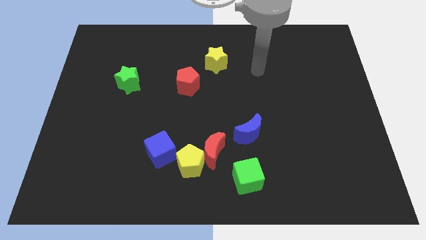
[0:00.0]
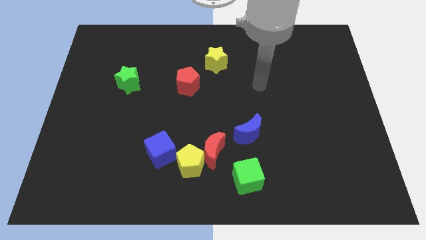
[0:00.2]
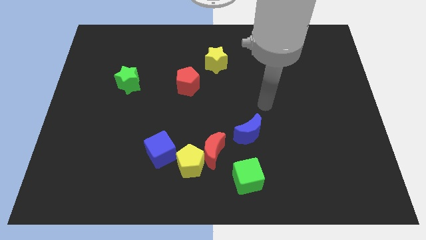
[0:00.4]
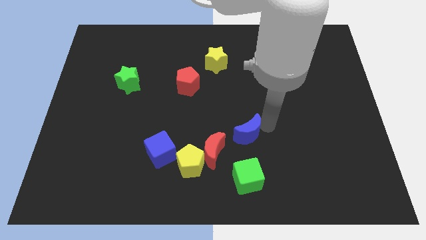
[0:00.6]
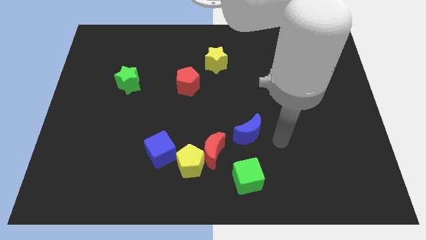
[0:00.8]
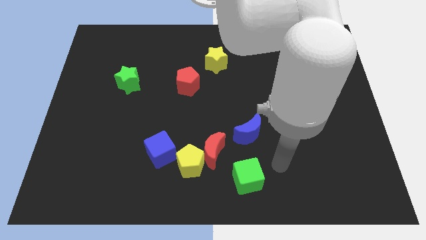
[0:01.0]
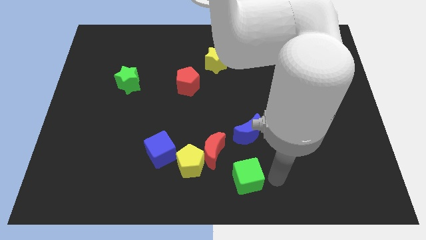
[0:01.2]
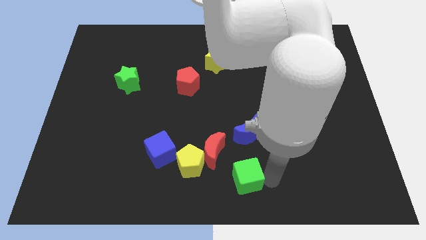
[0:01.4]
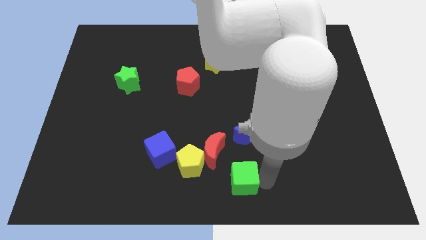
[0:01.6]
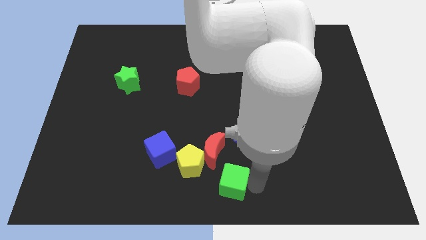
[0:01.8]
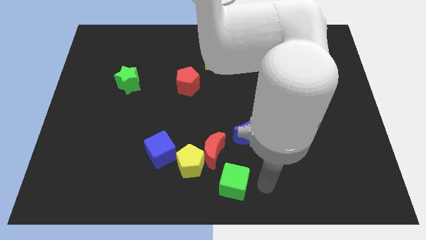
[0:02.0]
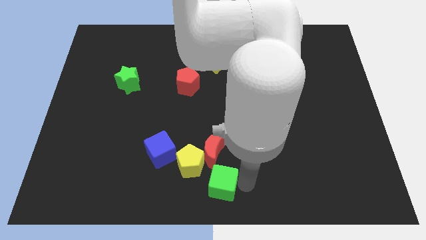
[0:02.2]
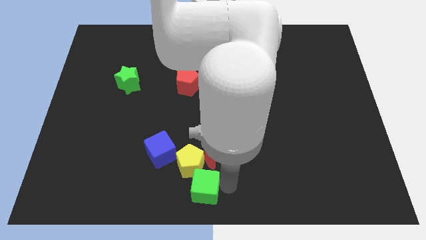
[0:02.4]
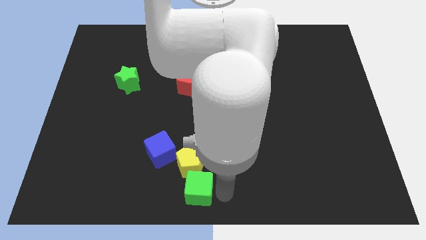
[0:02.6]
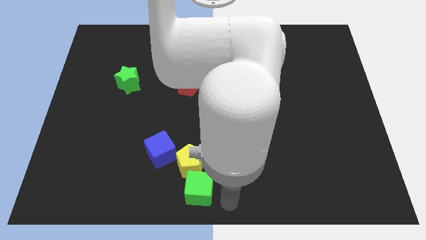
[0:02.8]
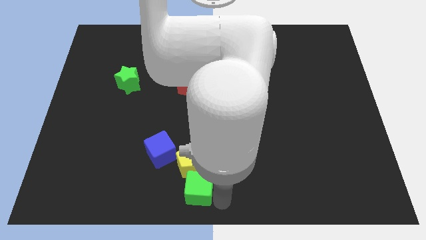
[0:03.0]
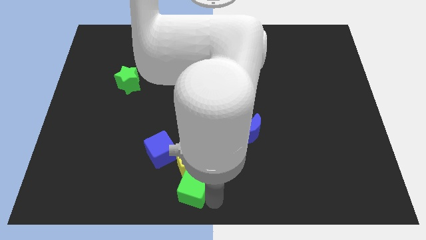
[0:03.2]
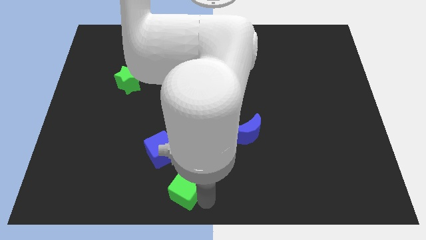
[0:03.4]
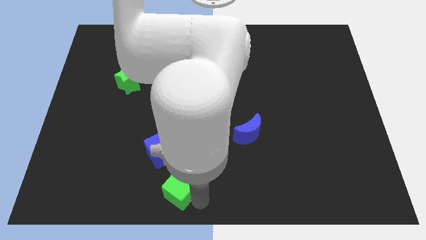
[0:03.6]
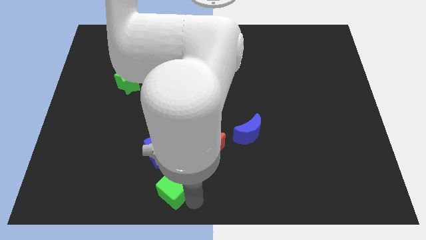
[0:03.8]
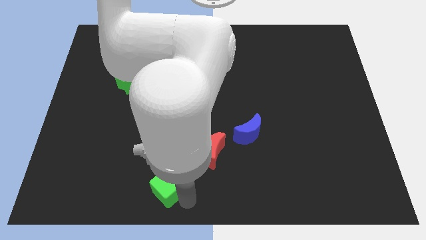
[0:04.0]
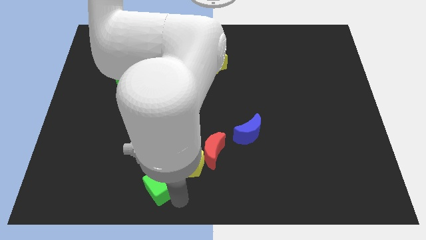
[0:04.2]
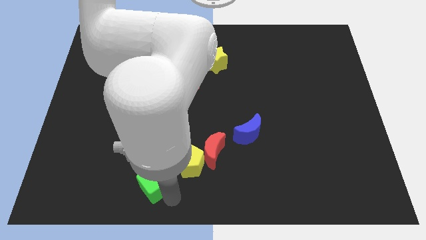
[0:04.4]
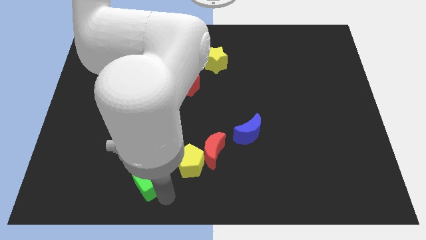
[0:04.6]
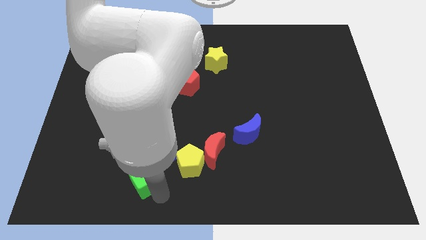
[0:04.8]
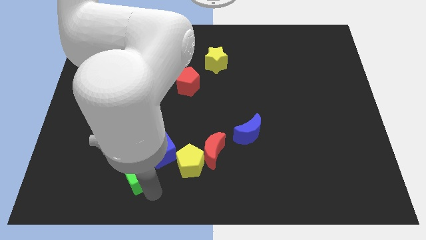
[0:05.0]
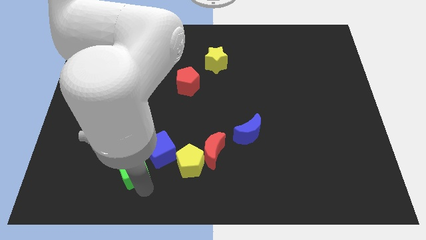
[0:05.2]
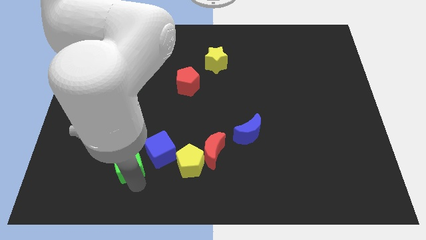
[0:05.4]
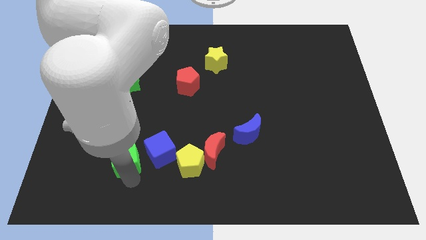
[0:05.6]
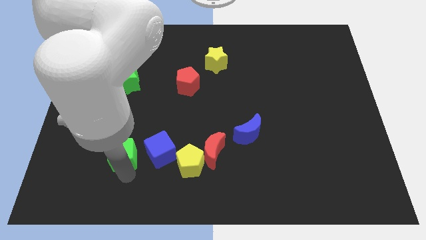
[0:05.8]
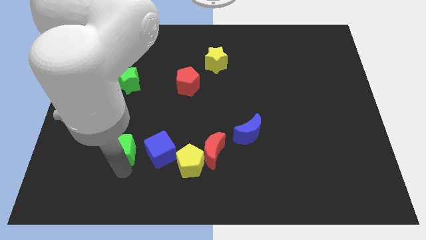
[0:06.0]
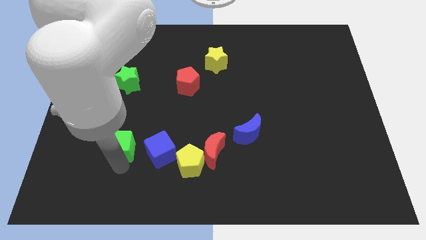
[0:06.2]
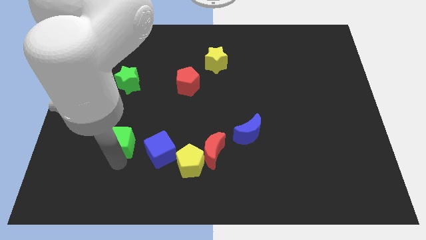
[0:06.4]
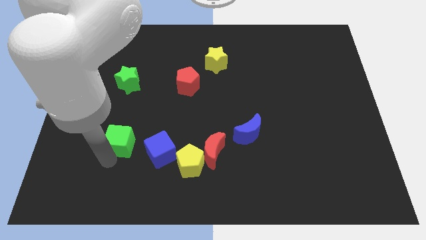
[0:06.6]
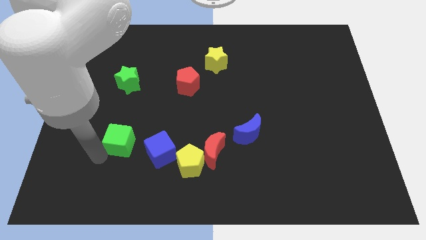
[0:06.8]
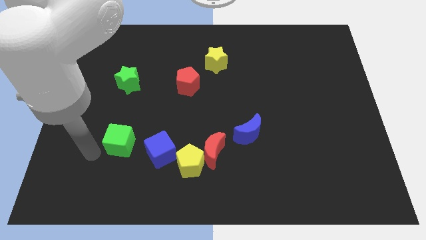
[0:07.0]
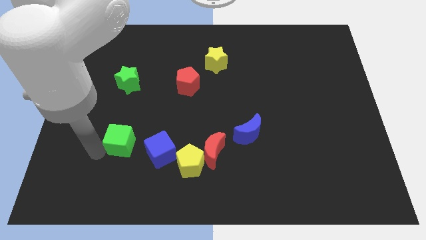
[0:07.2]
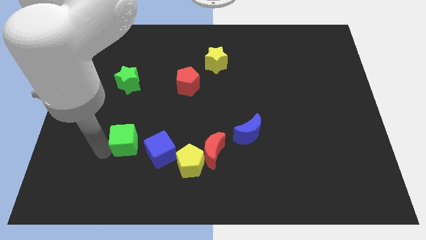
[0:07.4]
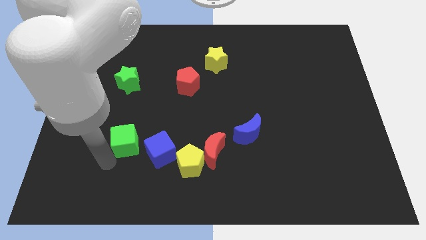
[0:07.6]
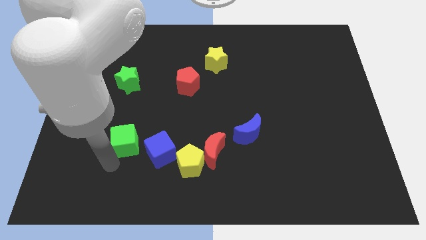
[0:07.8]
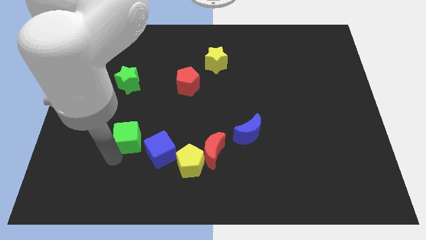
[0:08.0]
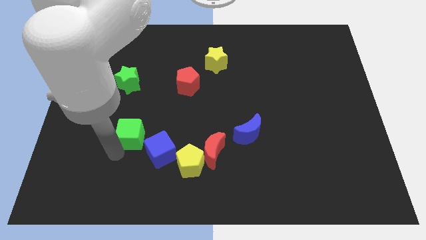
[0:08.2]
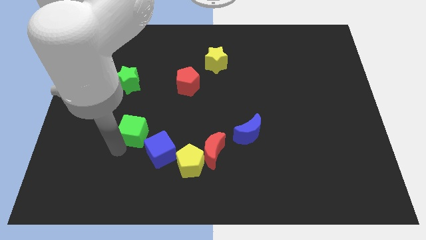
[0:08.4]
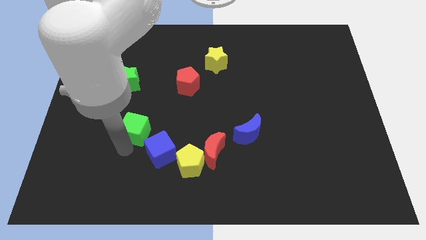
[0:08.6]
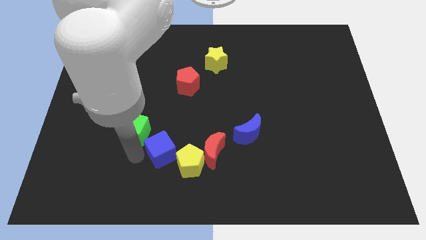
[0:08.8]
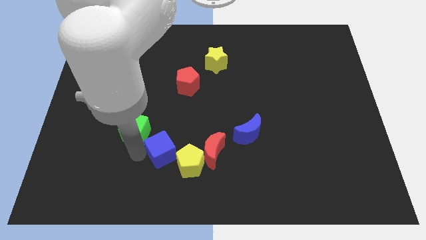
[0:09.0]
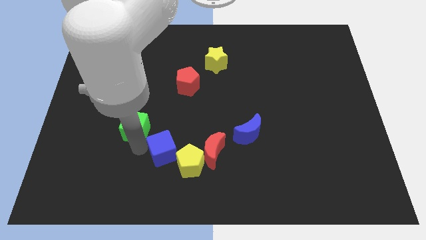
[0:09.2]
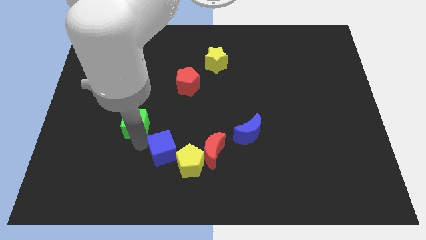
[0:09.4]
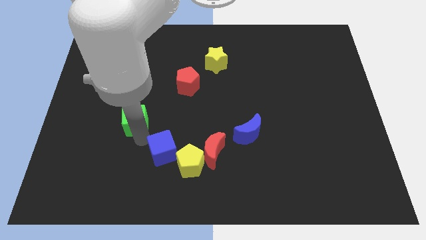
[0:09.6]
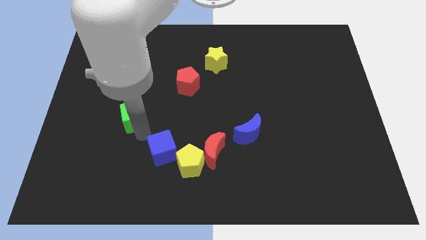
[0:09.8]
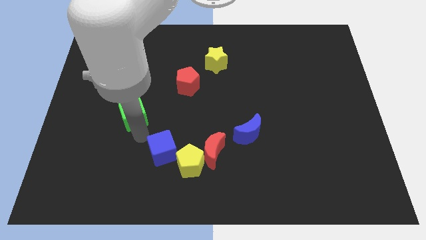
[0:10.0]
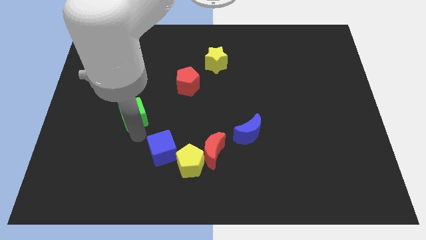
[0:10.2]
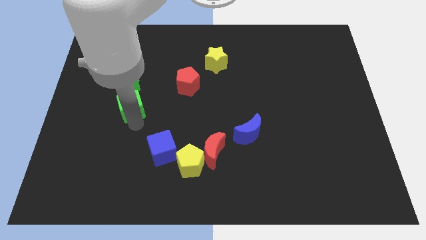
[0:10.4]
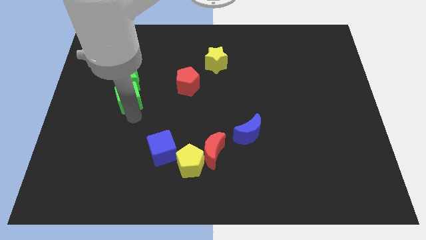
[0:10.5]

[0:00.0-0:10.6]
move the green cube towards the green star

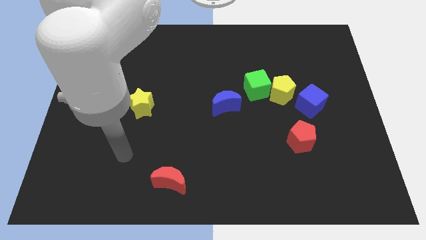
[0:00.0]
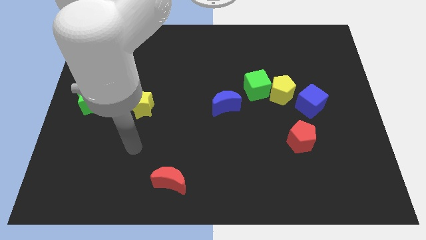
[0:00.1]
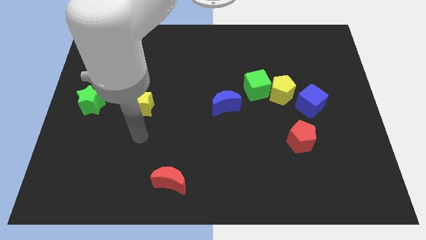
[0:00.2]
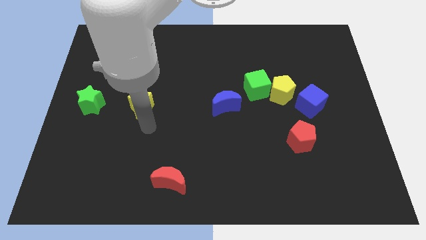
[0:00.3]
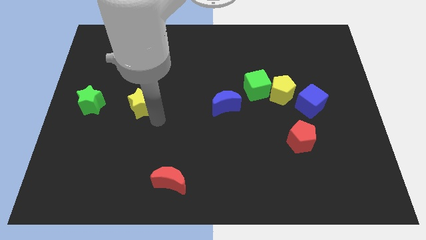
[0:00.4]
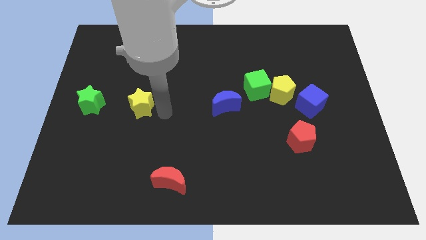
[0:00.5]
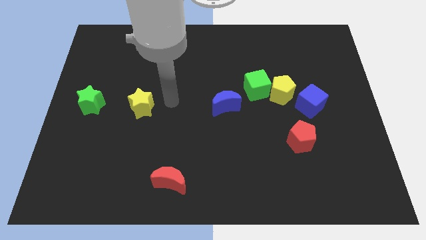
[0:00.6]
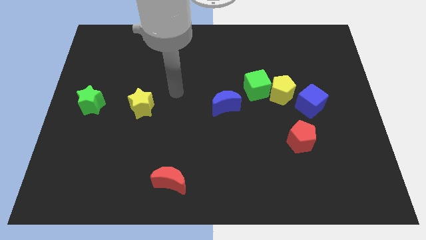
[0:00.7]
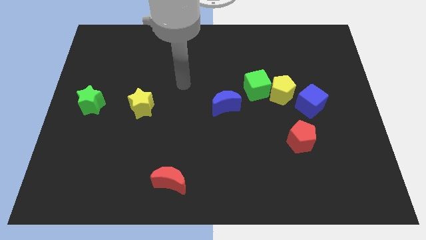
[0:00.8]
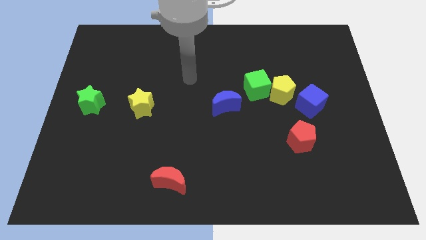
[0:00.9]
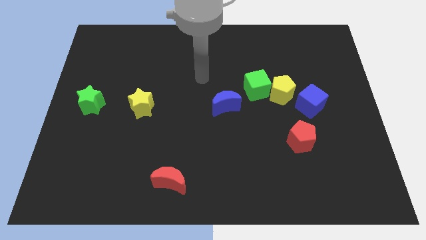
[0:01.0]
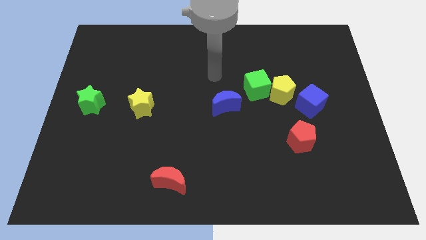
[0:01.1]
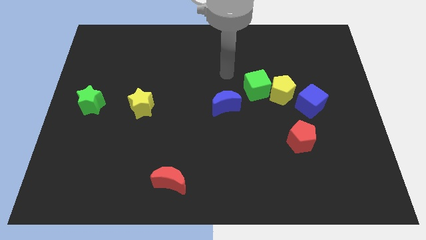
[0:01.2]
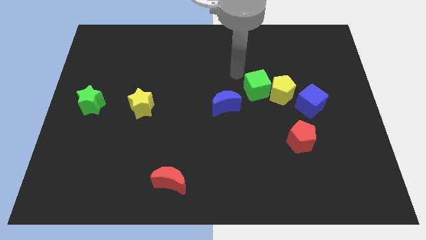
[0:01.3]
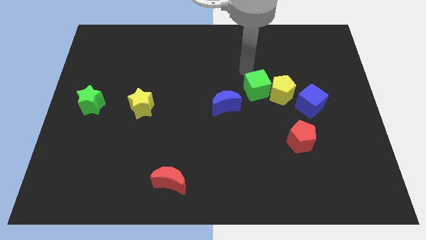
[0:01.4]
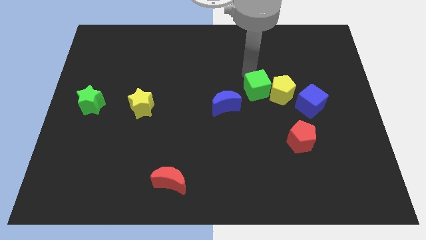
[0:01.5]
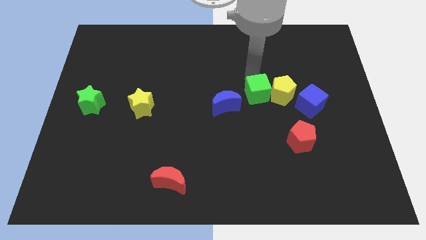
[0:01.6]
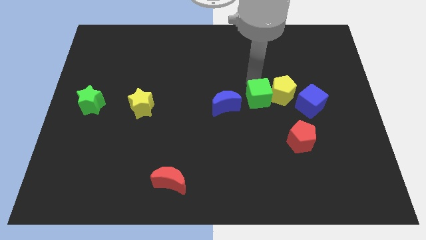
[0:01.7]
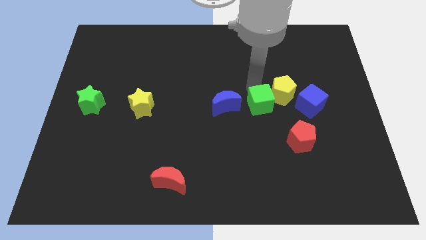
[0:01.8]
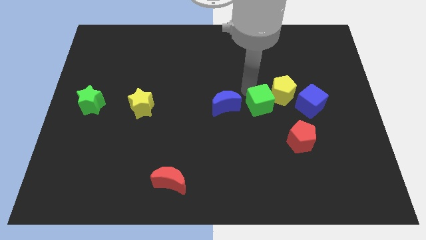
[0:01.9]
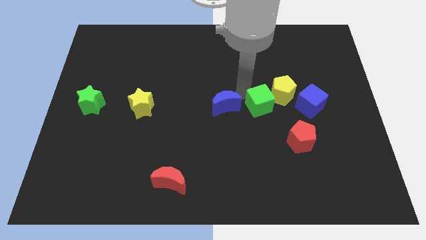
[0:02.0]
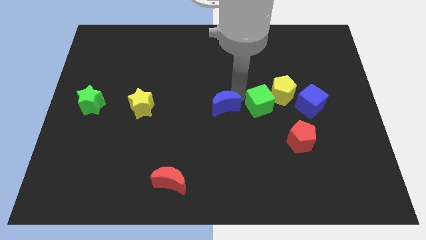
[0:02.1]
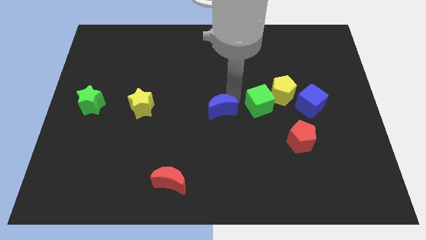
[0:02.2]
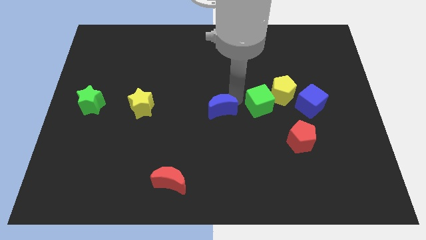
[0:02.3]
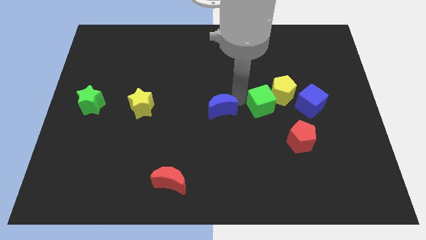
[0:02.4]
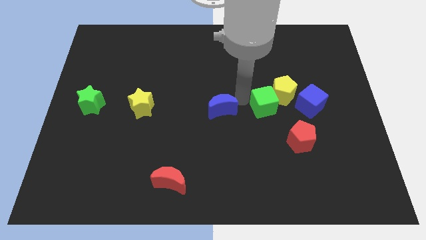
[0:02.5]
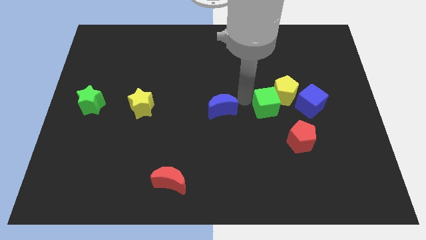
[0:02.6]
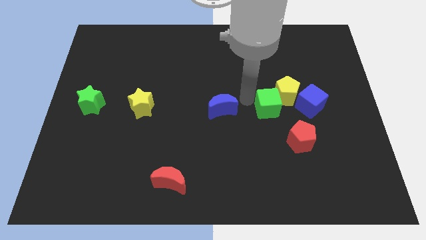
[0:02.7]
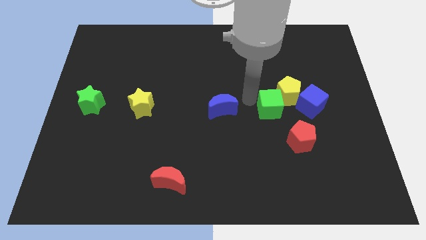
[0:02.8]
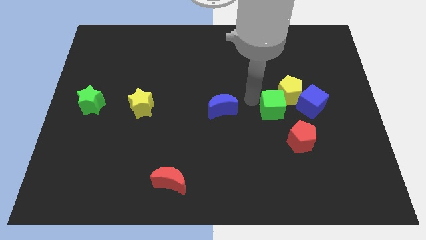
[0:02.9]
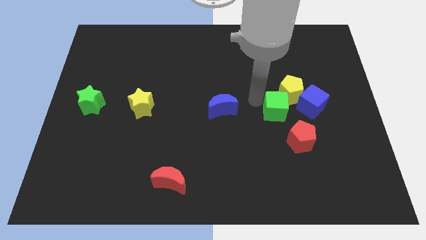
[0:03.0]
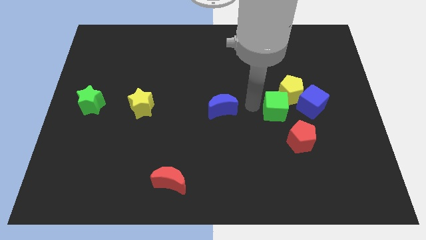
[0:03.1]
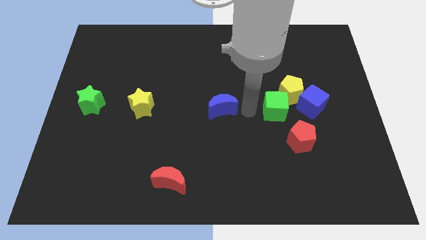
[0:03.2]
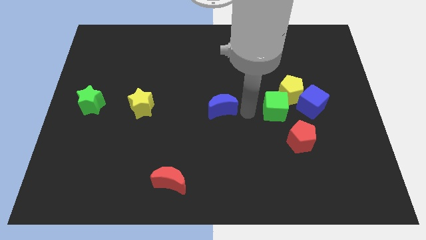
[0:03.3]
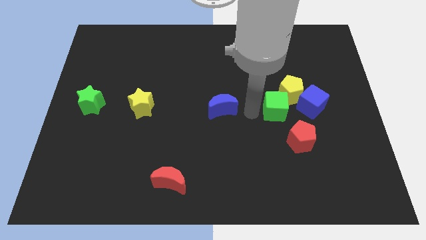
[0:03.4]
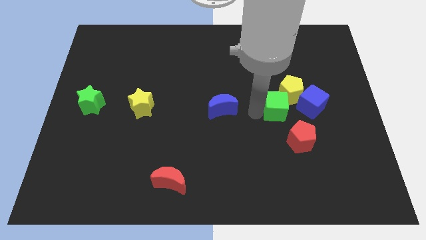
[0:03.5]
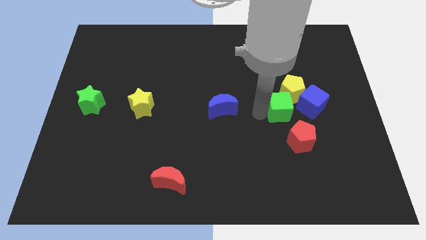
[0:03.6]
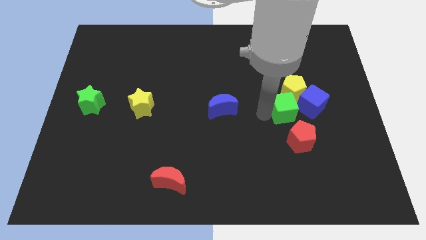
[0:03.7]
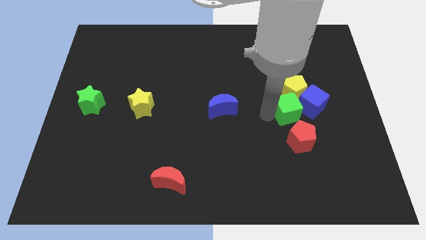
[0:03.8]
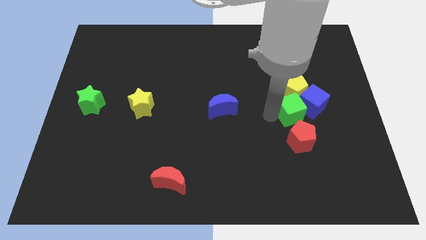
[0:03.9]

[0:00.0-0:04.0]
put the green cube next to the blue cube
